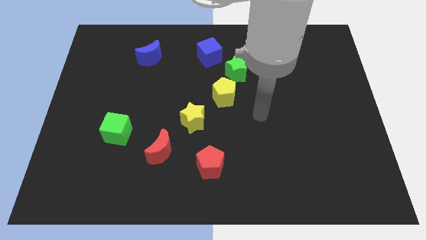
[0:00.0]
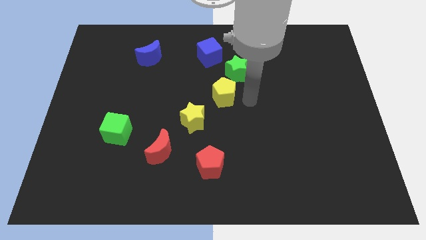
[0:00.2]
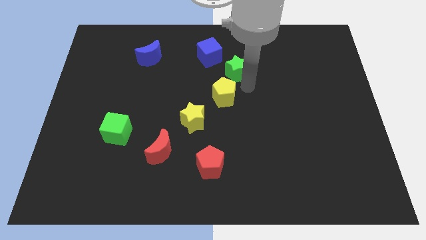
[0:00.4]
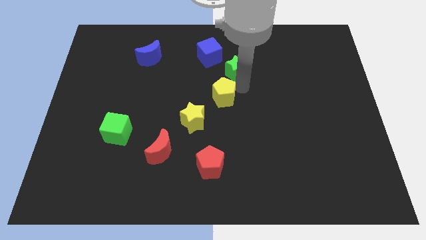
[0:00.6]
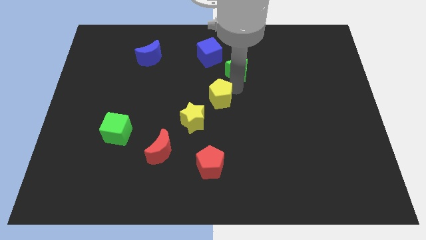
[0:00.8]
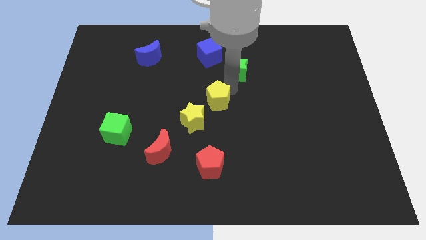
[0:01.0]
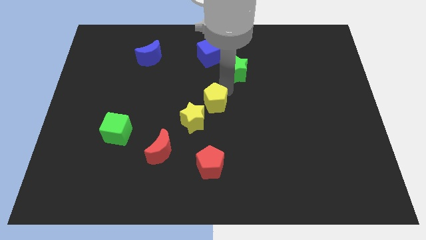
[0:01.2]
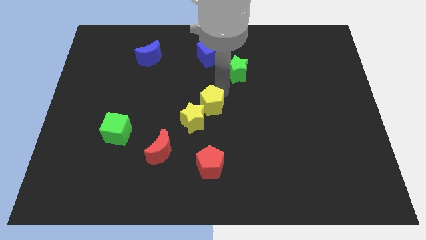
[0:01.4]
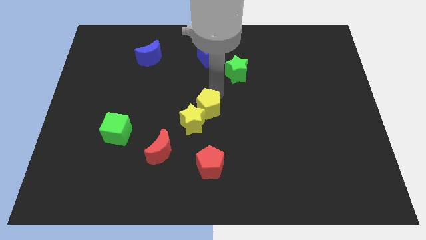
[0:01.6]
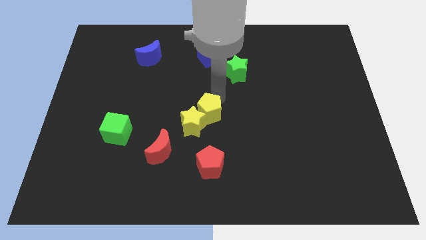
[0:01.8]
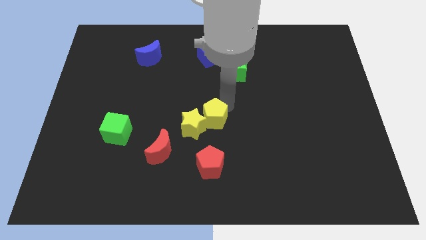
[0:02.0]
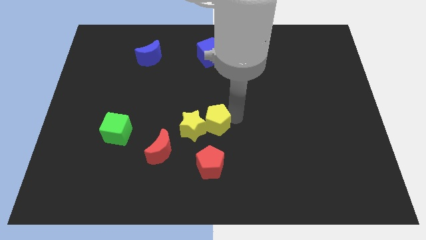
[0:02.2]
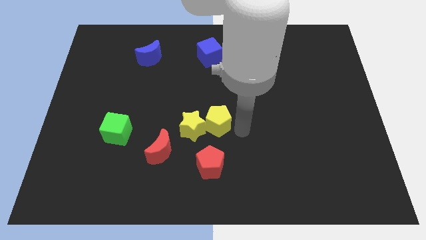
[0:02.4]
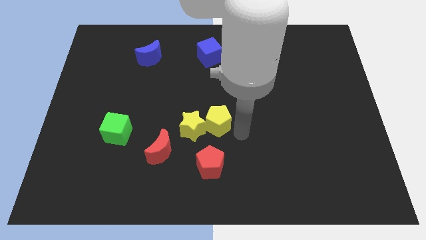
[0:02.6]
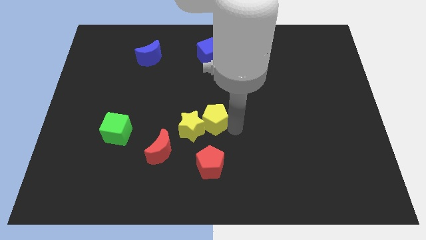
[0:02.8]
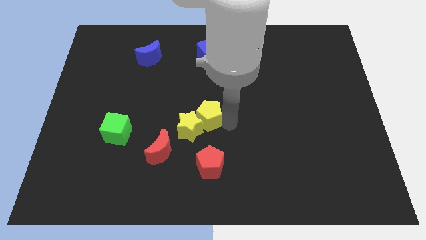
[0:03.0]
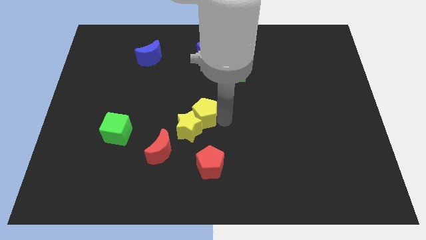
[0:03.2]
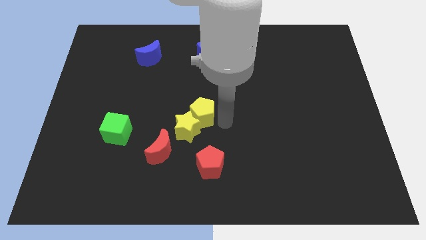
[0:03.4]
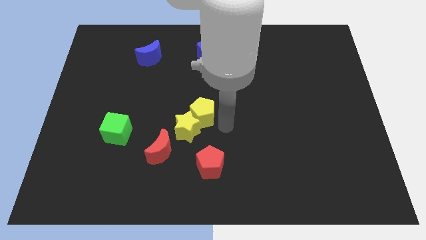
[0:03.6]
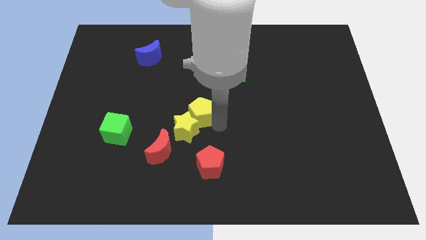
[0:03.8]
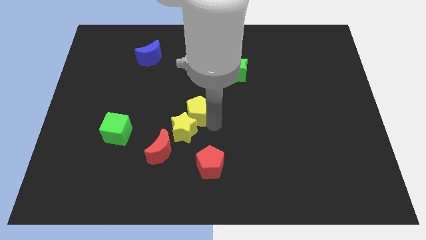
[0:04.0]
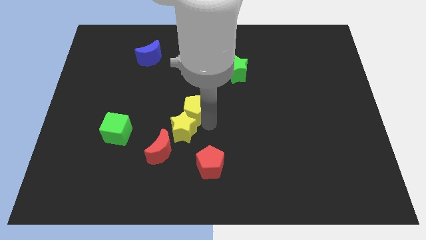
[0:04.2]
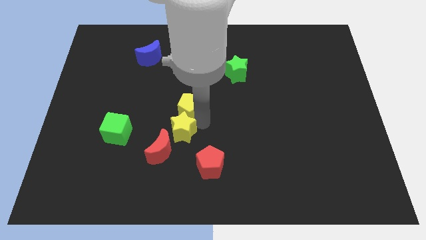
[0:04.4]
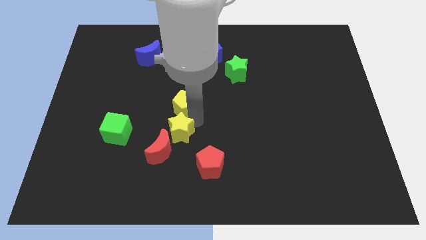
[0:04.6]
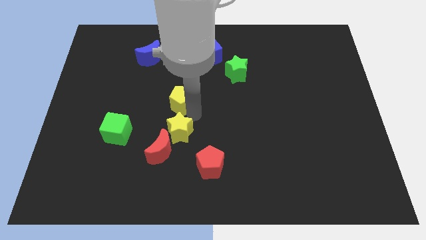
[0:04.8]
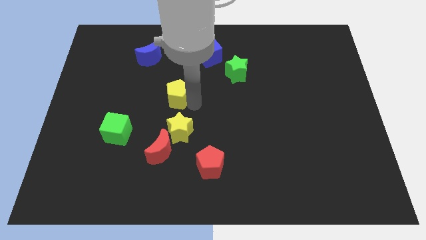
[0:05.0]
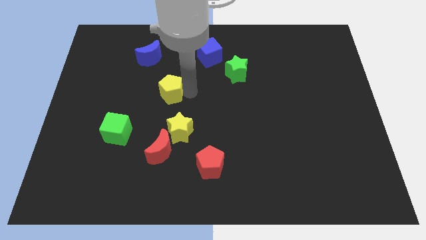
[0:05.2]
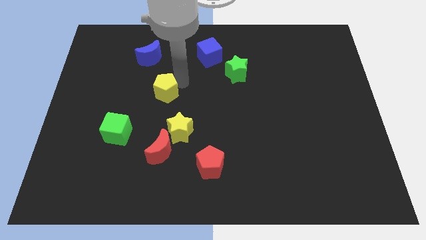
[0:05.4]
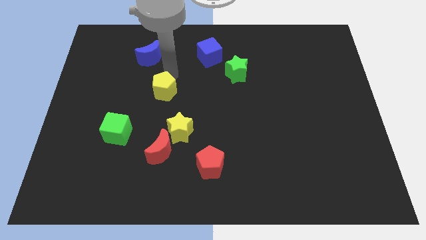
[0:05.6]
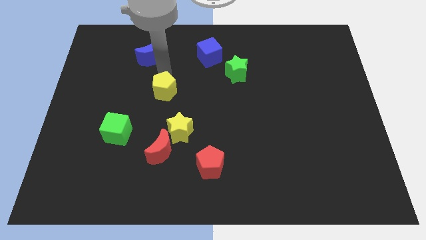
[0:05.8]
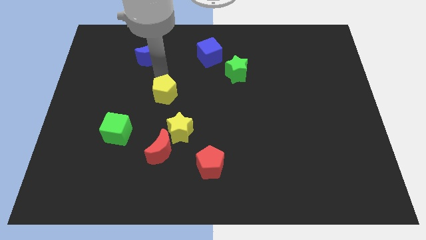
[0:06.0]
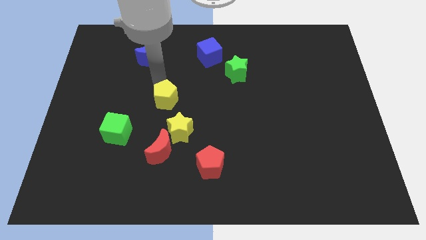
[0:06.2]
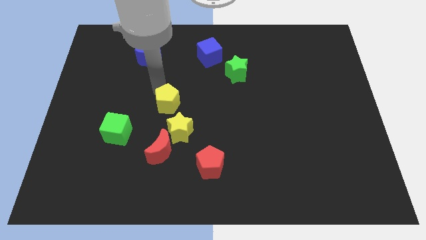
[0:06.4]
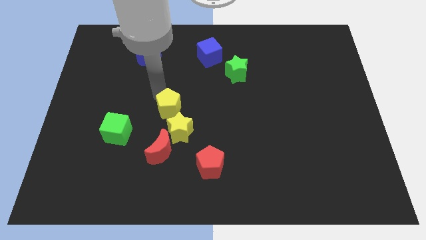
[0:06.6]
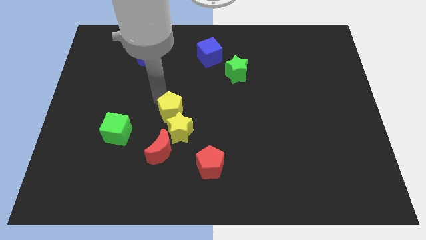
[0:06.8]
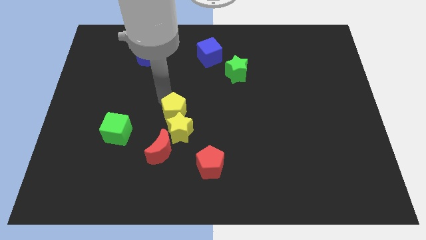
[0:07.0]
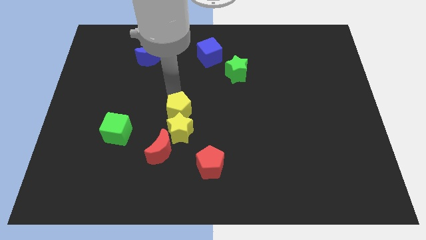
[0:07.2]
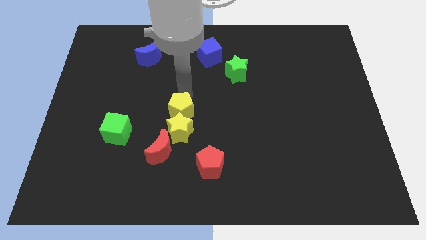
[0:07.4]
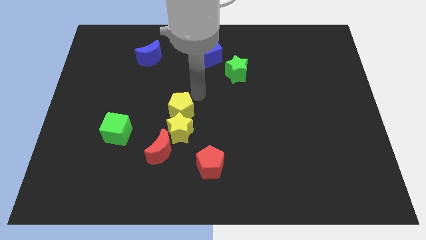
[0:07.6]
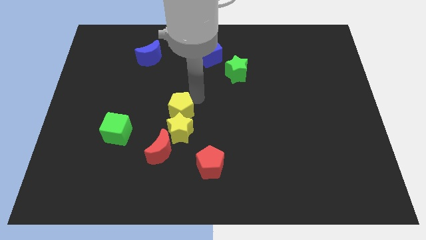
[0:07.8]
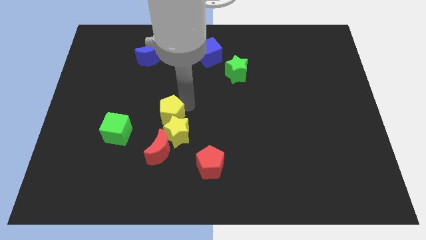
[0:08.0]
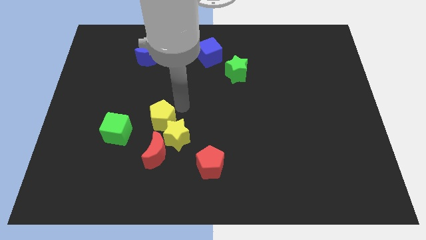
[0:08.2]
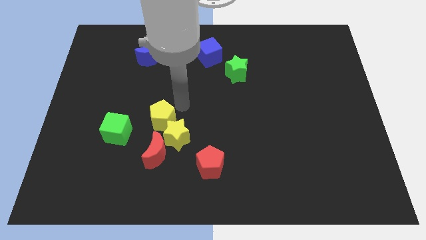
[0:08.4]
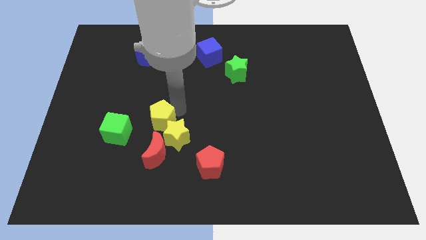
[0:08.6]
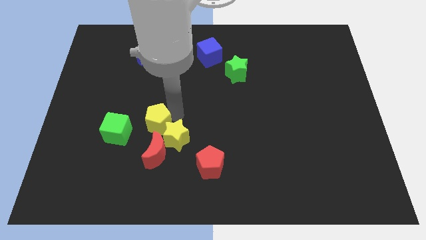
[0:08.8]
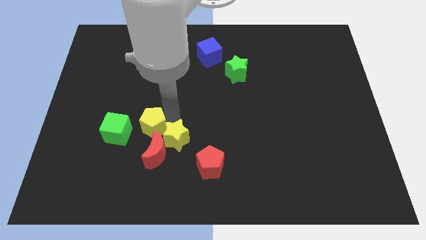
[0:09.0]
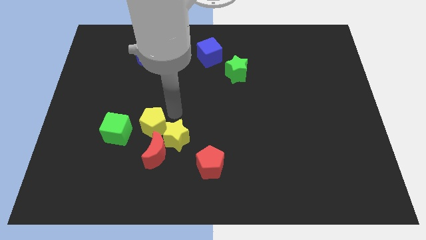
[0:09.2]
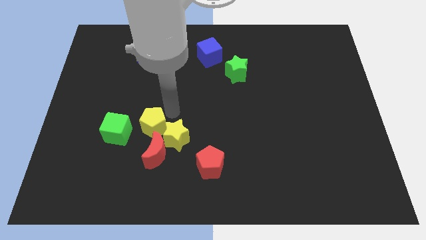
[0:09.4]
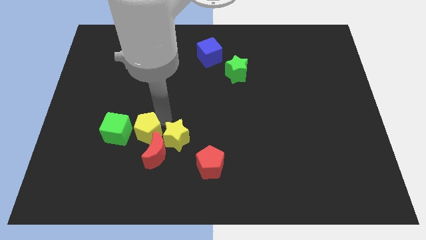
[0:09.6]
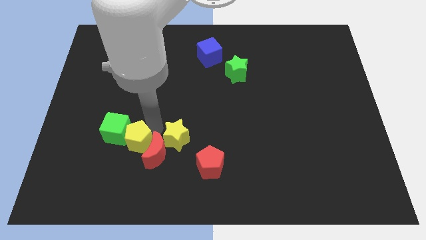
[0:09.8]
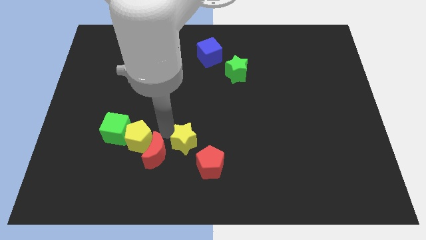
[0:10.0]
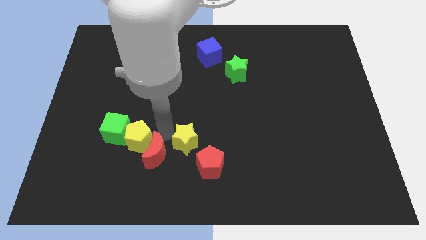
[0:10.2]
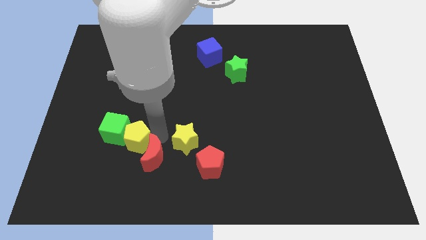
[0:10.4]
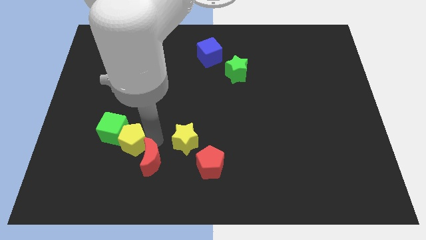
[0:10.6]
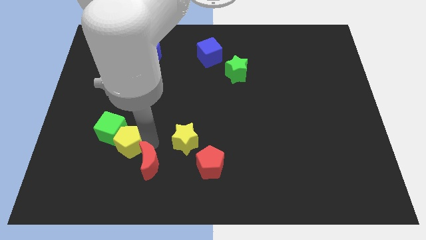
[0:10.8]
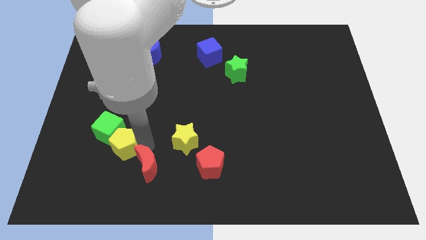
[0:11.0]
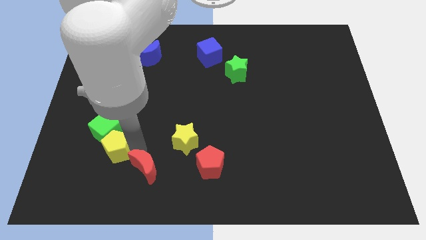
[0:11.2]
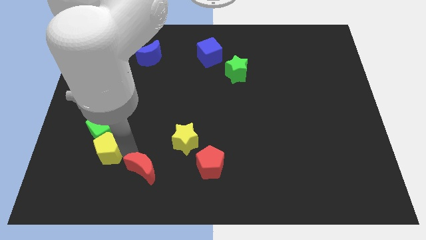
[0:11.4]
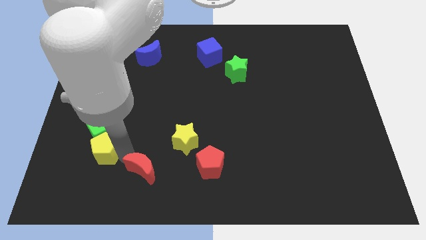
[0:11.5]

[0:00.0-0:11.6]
put the yellow pentagon to the bottom left side of the green cube
